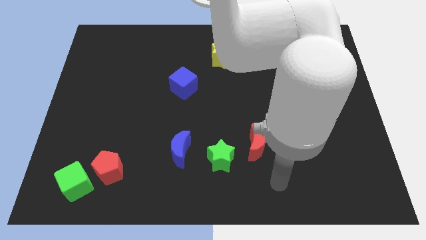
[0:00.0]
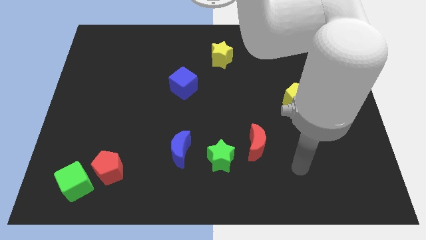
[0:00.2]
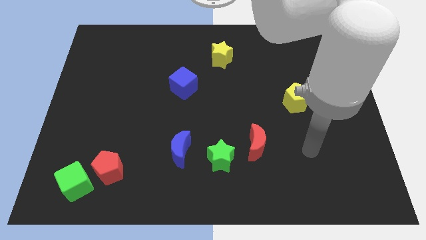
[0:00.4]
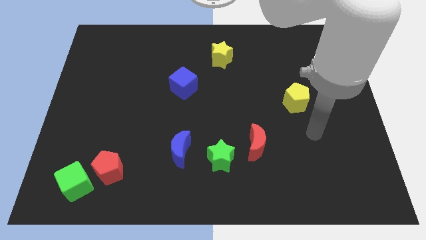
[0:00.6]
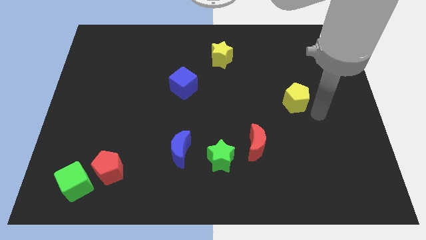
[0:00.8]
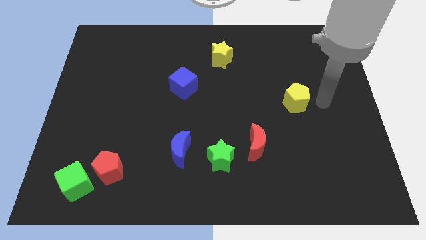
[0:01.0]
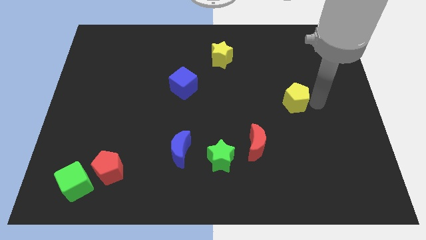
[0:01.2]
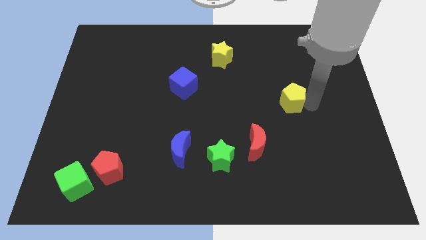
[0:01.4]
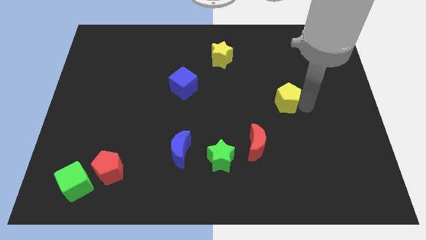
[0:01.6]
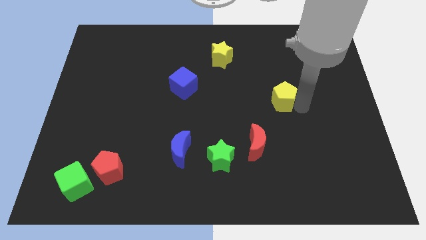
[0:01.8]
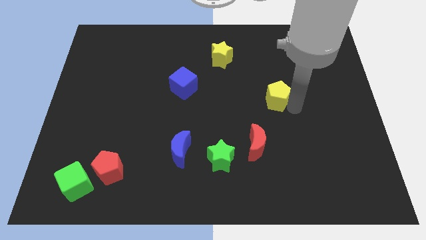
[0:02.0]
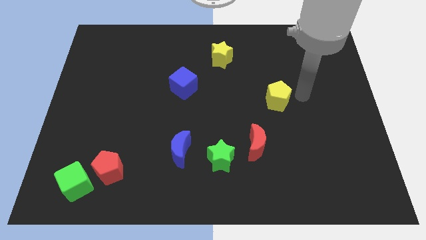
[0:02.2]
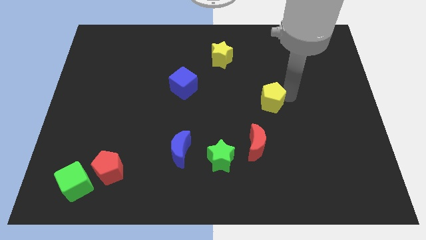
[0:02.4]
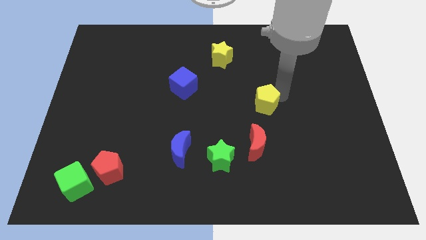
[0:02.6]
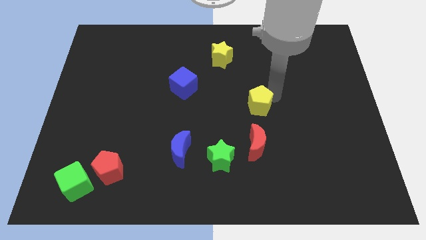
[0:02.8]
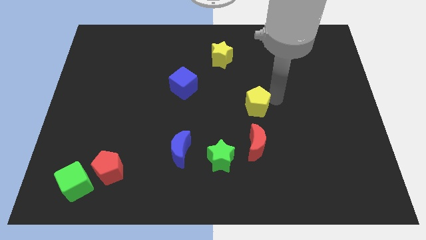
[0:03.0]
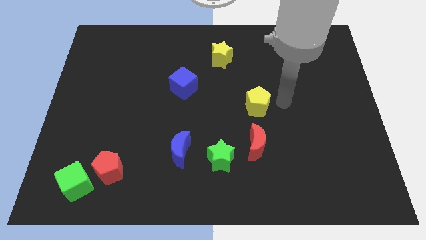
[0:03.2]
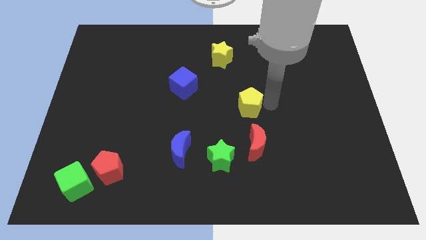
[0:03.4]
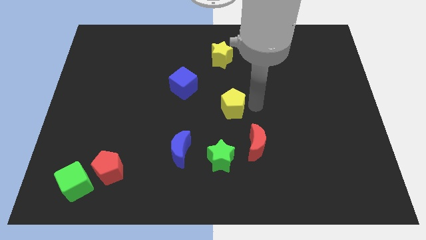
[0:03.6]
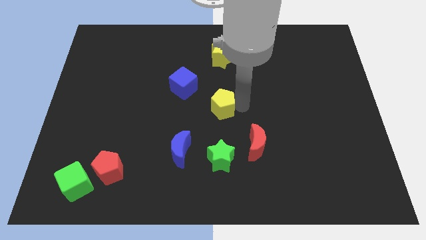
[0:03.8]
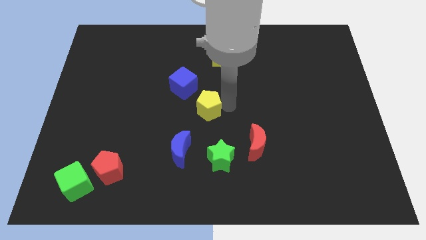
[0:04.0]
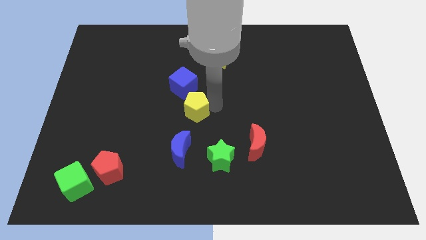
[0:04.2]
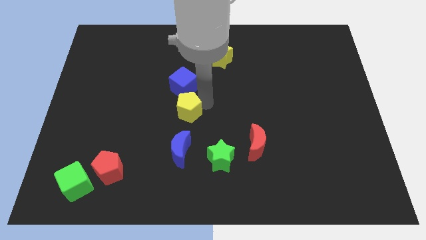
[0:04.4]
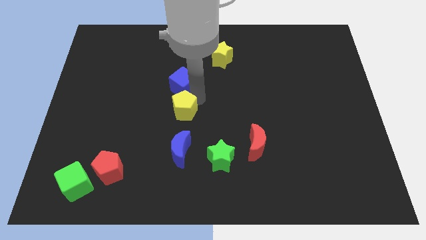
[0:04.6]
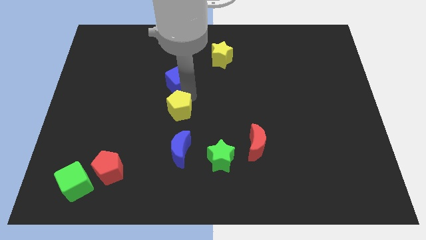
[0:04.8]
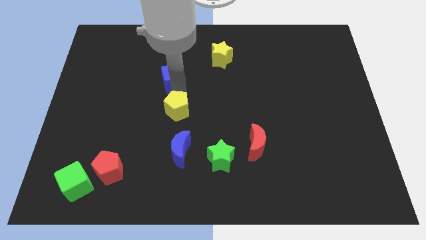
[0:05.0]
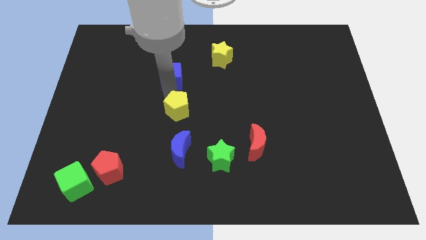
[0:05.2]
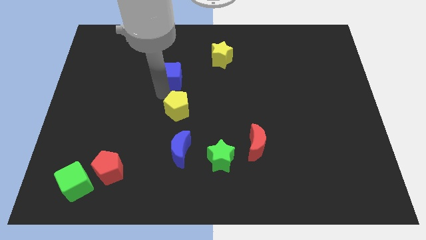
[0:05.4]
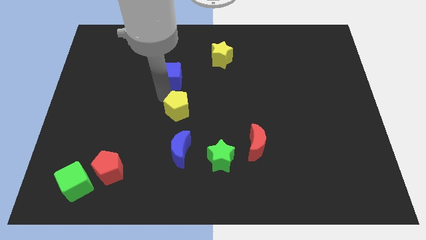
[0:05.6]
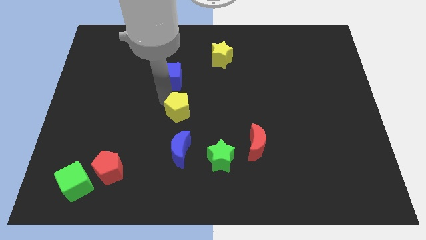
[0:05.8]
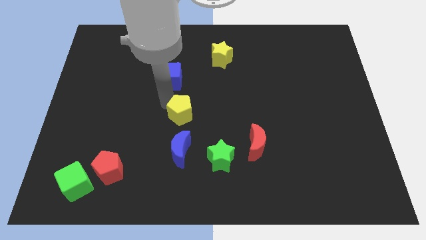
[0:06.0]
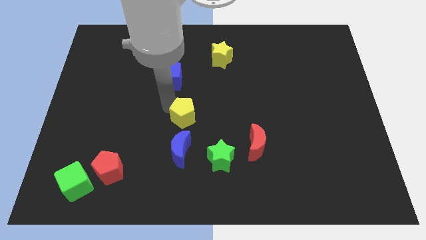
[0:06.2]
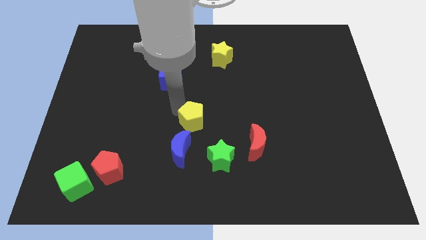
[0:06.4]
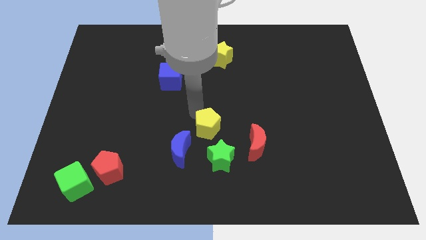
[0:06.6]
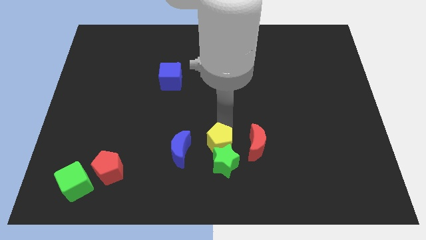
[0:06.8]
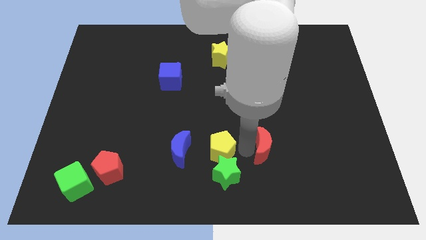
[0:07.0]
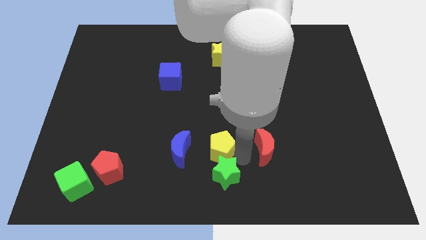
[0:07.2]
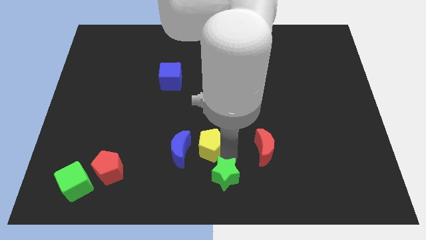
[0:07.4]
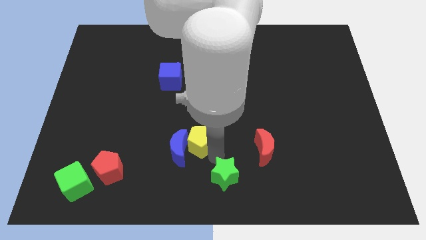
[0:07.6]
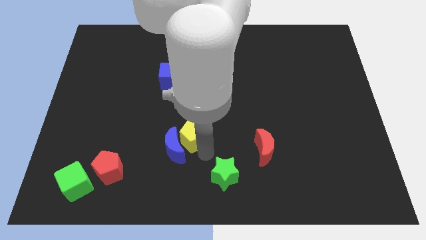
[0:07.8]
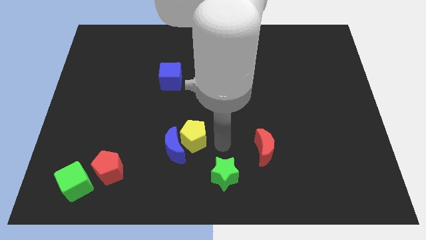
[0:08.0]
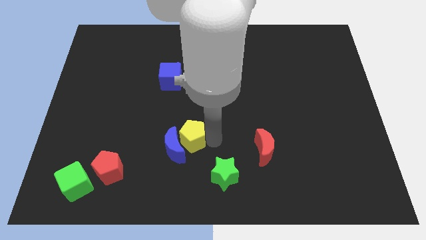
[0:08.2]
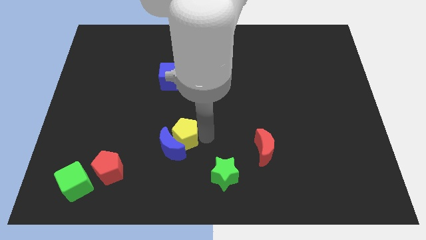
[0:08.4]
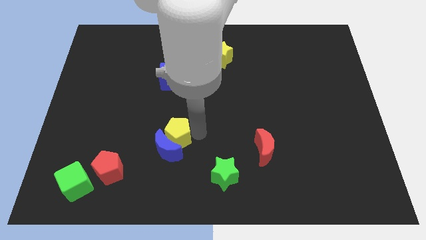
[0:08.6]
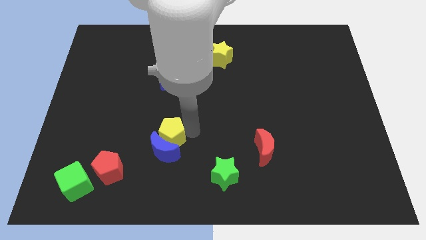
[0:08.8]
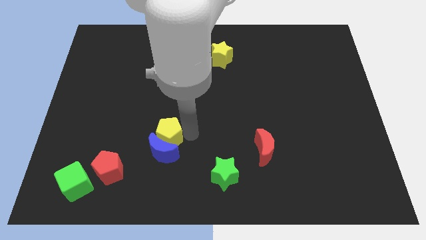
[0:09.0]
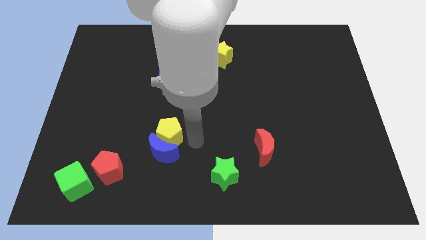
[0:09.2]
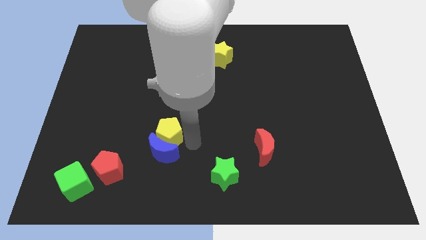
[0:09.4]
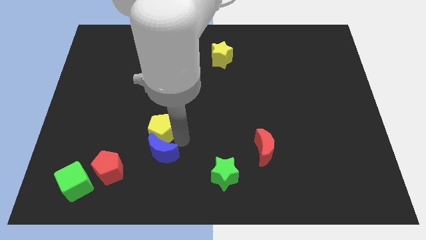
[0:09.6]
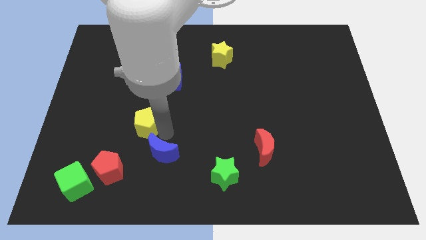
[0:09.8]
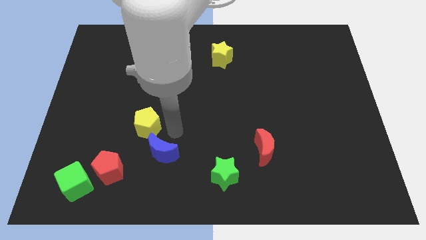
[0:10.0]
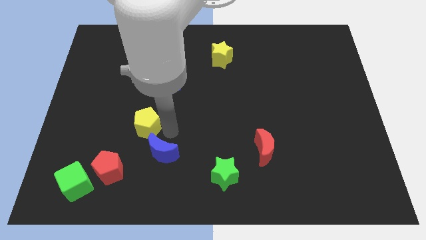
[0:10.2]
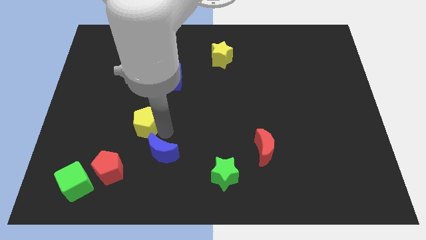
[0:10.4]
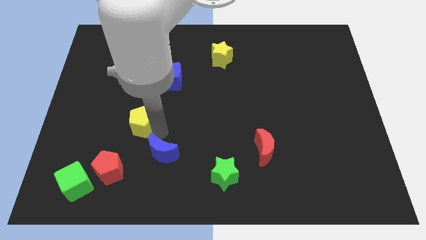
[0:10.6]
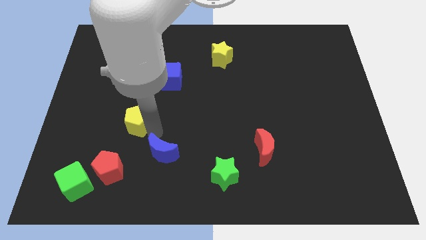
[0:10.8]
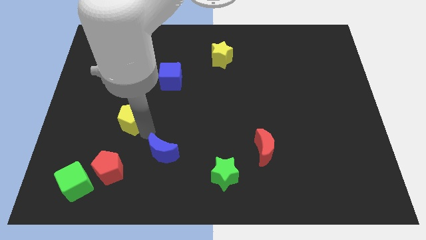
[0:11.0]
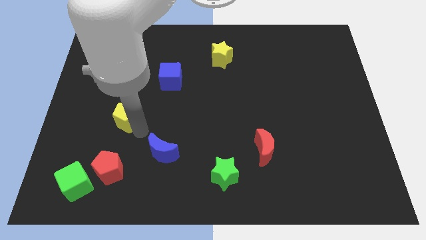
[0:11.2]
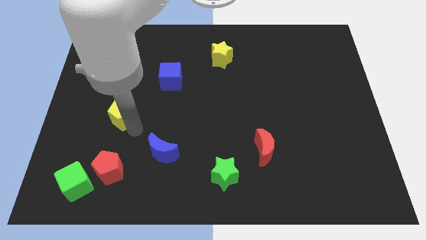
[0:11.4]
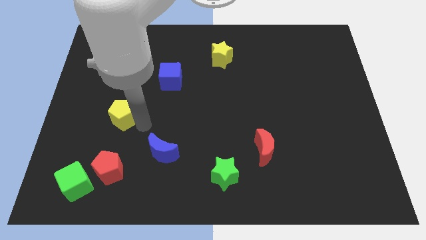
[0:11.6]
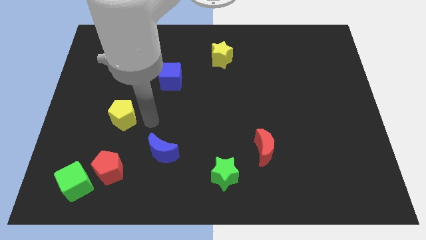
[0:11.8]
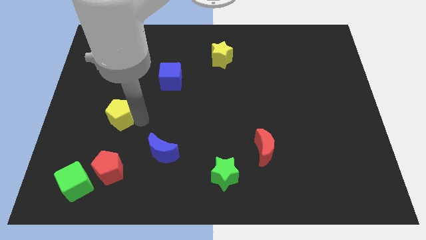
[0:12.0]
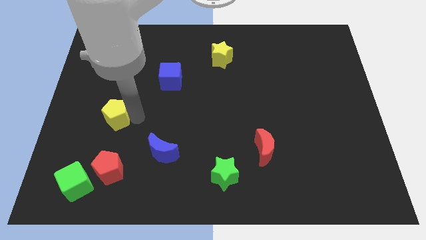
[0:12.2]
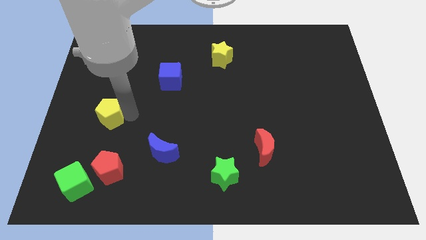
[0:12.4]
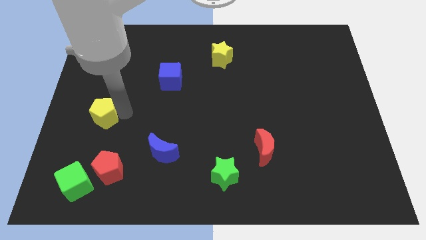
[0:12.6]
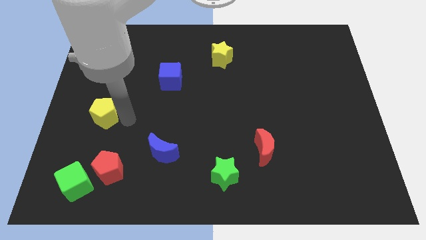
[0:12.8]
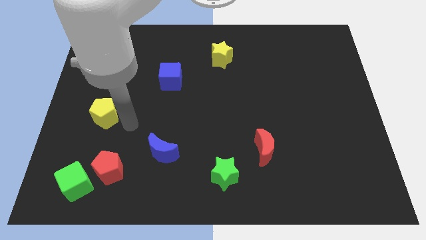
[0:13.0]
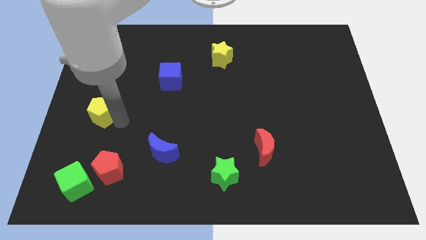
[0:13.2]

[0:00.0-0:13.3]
slide the yellow pentagon to the center left
